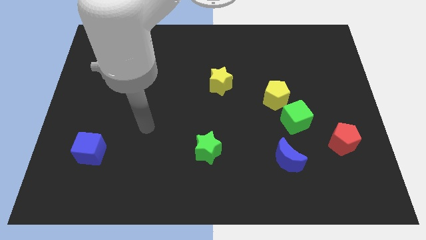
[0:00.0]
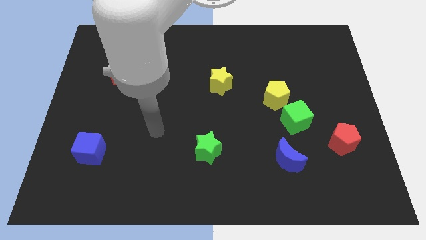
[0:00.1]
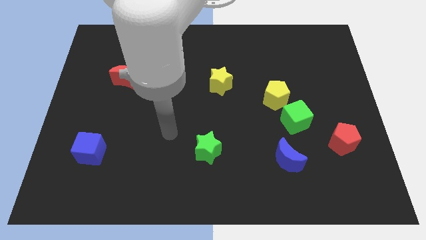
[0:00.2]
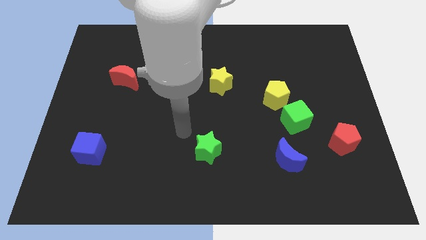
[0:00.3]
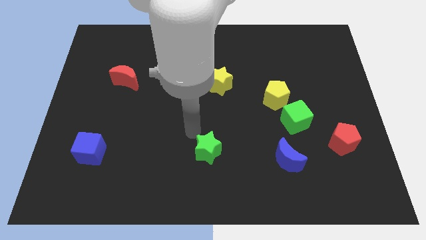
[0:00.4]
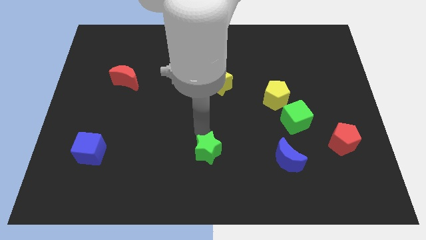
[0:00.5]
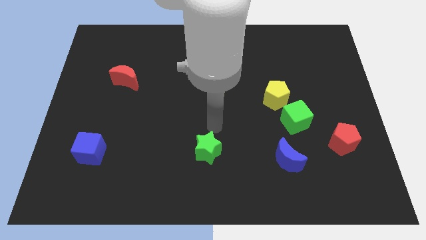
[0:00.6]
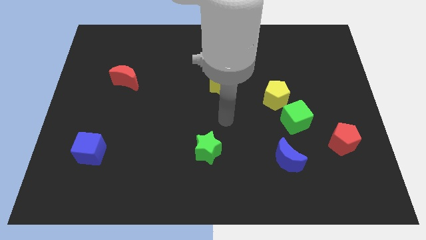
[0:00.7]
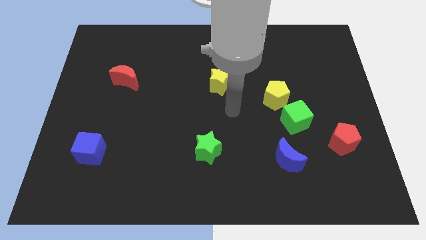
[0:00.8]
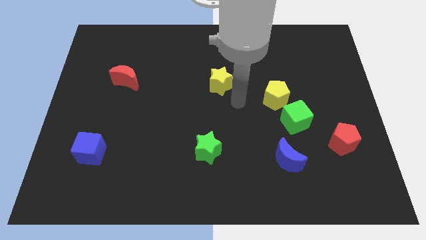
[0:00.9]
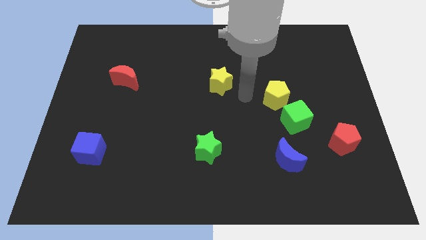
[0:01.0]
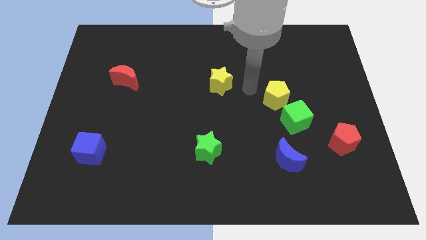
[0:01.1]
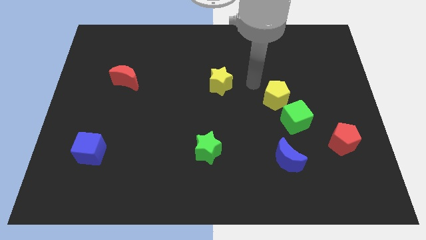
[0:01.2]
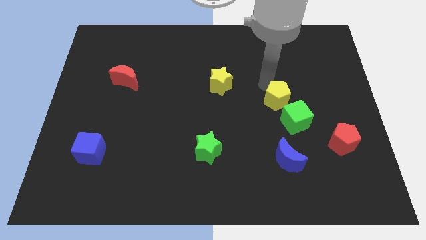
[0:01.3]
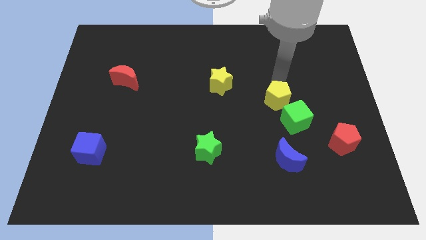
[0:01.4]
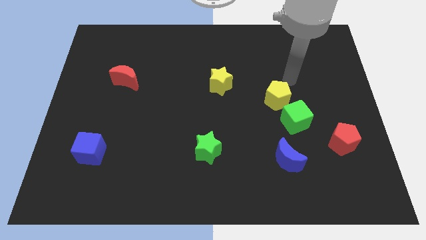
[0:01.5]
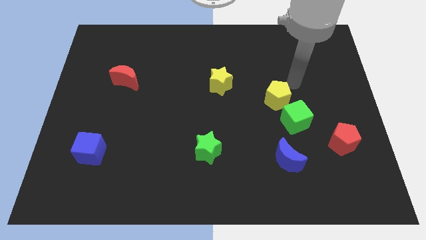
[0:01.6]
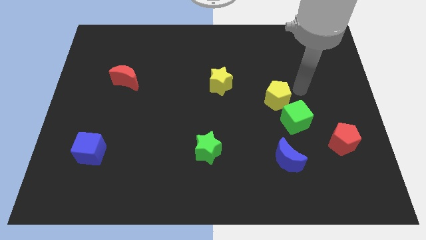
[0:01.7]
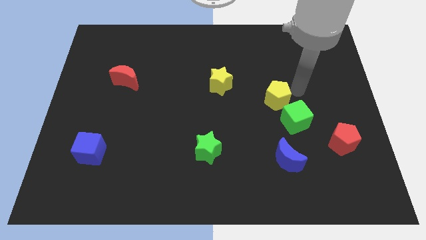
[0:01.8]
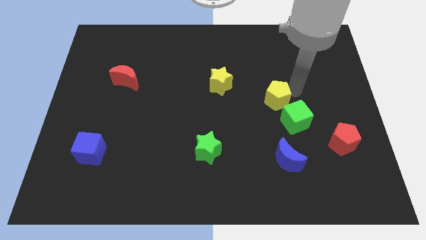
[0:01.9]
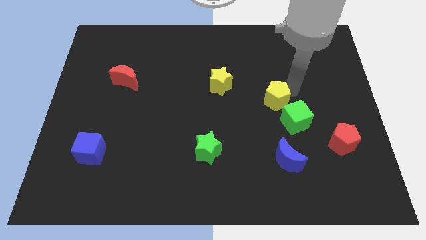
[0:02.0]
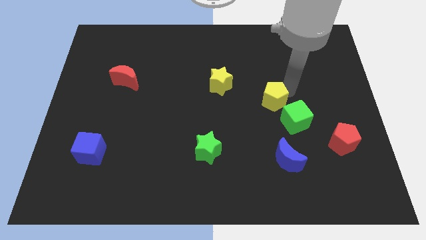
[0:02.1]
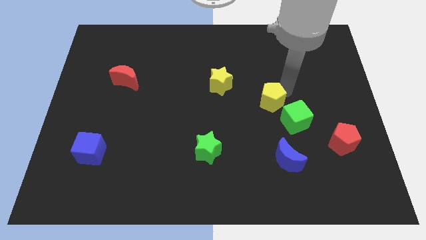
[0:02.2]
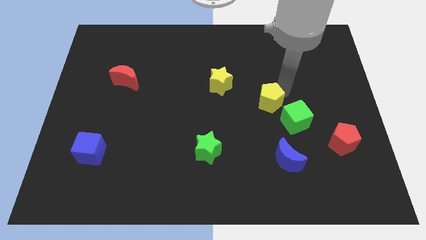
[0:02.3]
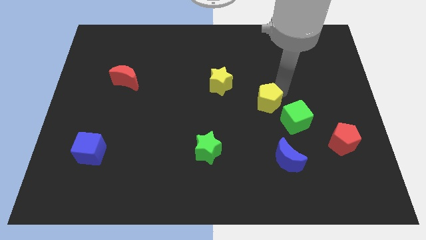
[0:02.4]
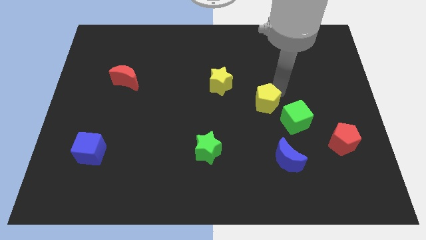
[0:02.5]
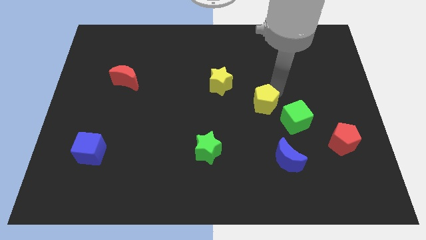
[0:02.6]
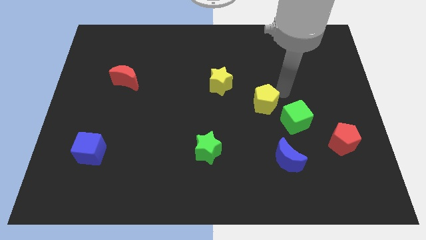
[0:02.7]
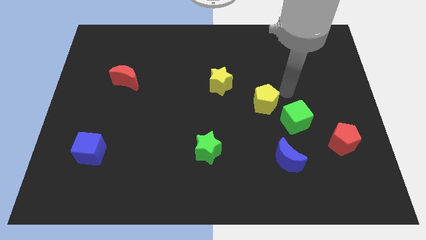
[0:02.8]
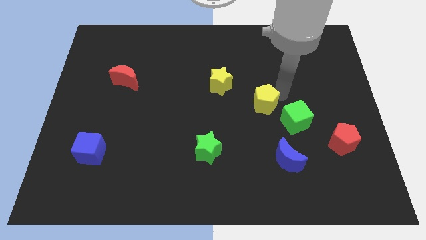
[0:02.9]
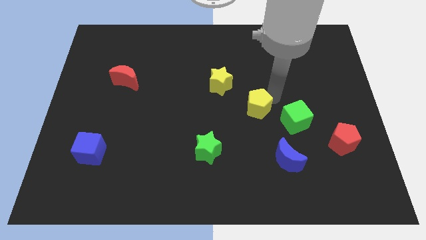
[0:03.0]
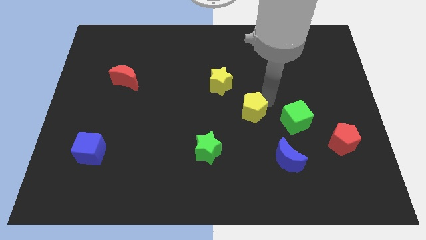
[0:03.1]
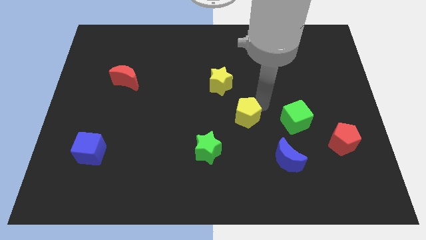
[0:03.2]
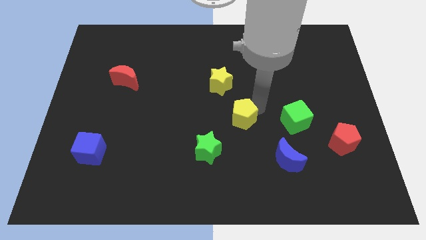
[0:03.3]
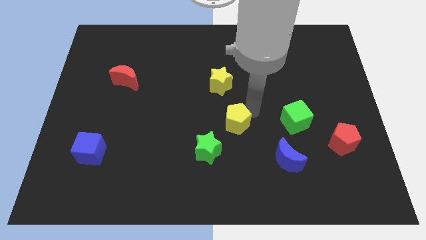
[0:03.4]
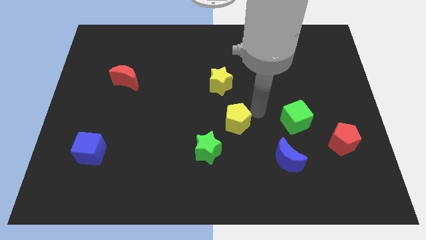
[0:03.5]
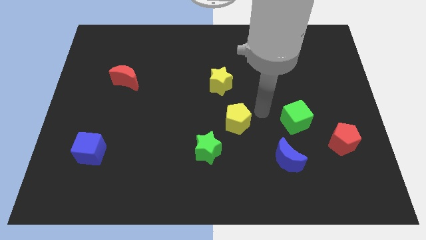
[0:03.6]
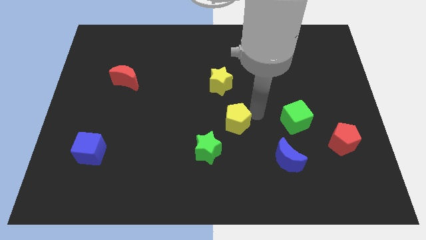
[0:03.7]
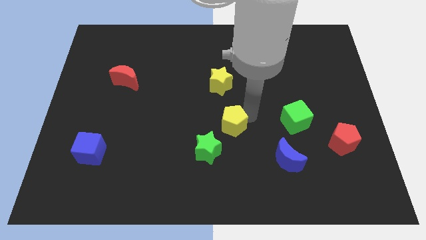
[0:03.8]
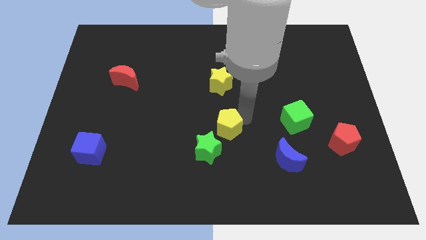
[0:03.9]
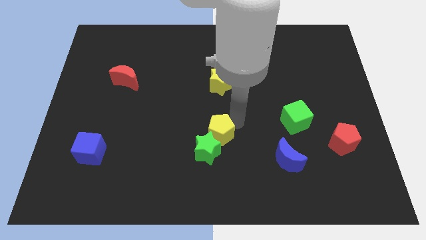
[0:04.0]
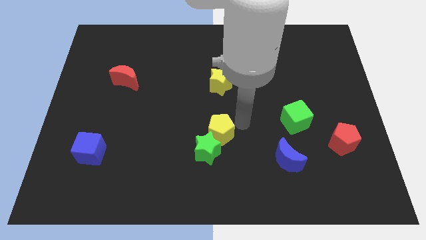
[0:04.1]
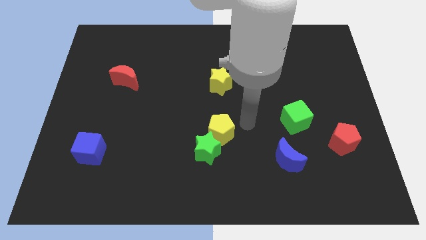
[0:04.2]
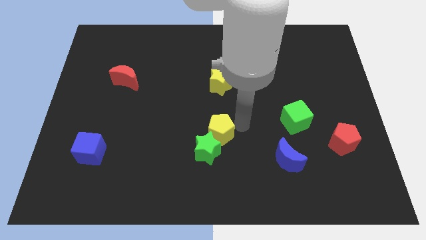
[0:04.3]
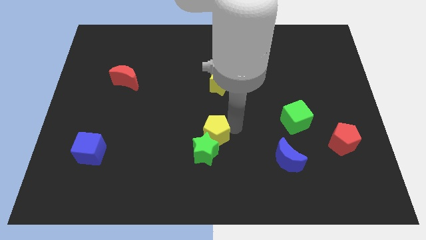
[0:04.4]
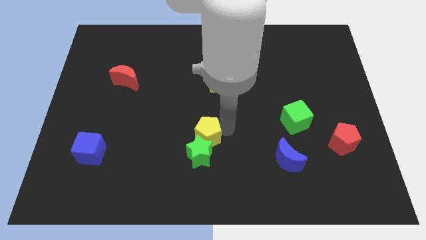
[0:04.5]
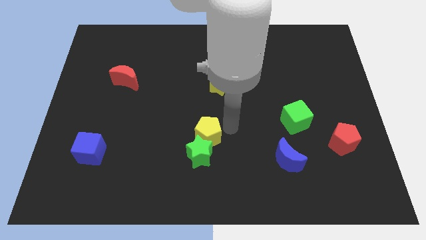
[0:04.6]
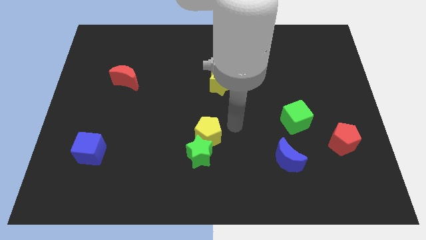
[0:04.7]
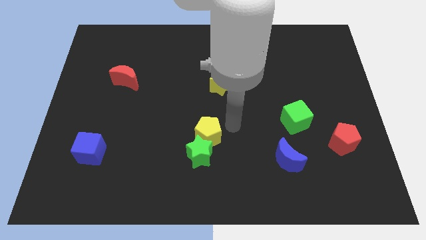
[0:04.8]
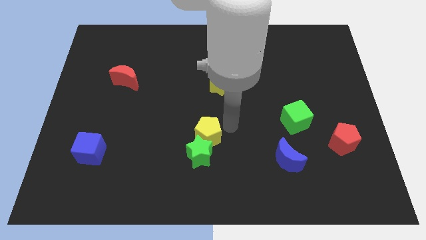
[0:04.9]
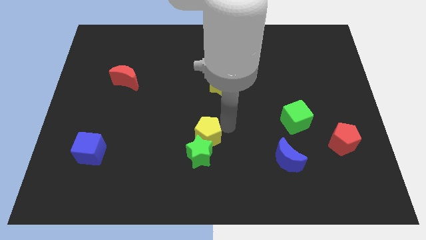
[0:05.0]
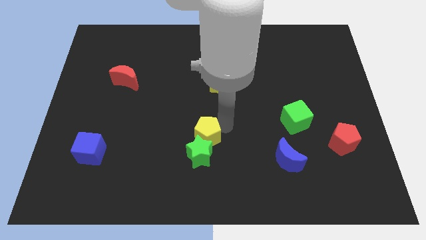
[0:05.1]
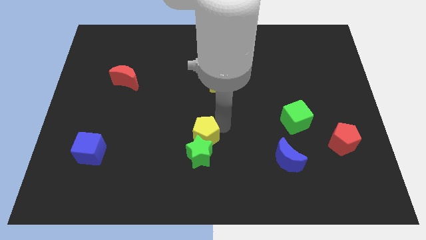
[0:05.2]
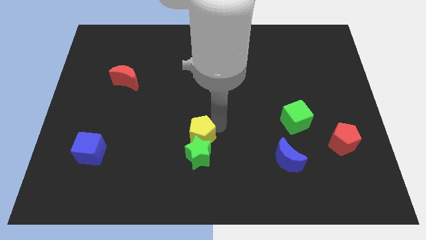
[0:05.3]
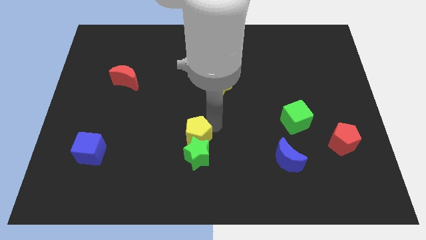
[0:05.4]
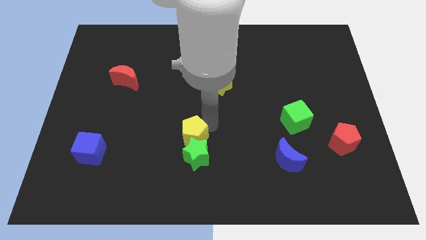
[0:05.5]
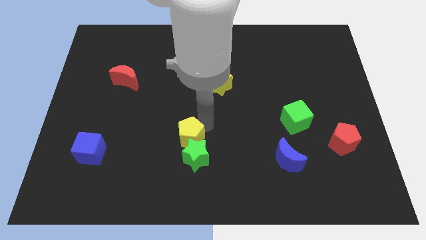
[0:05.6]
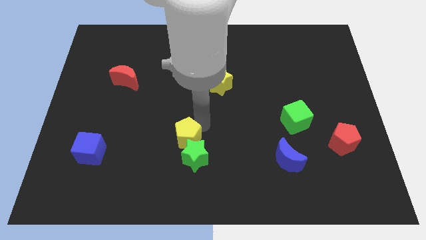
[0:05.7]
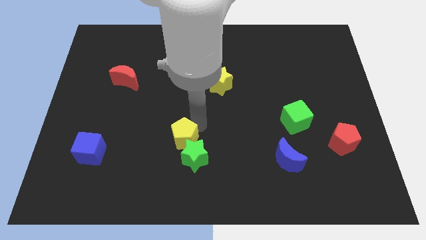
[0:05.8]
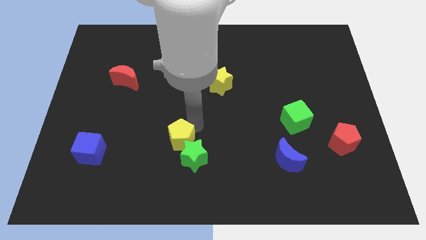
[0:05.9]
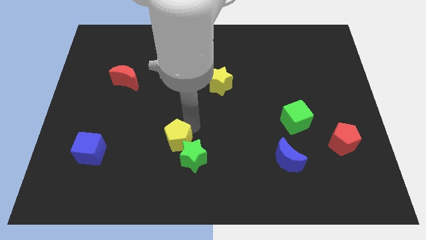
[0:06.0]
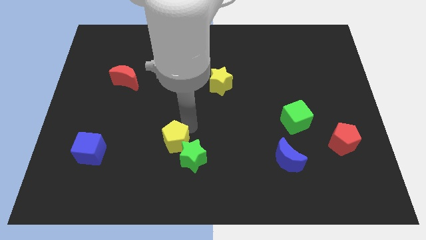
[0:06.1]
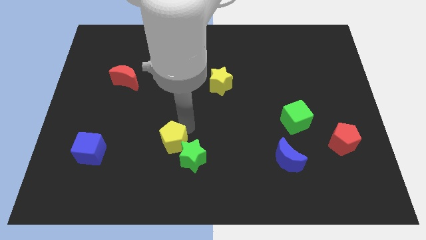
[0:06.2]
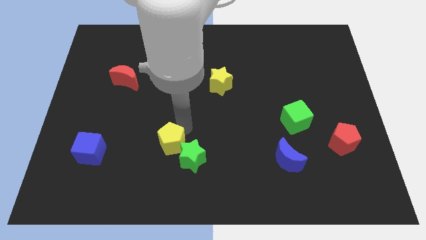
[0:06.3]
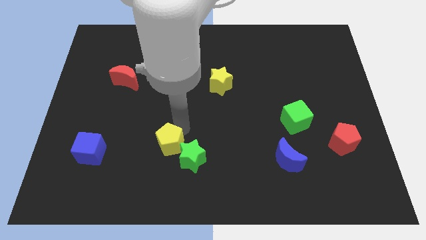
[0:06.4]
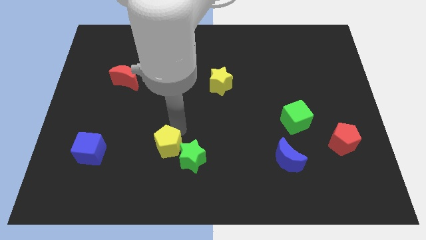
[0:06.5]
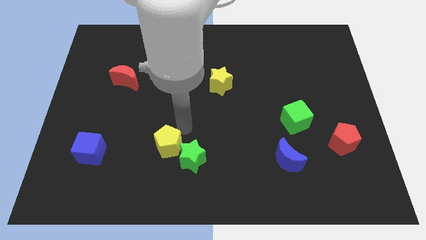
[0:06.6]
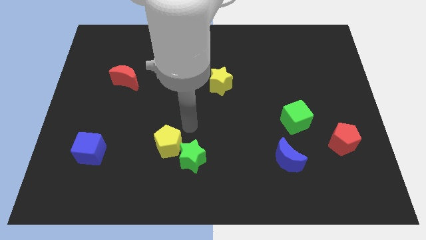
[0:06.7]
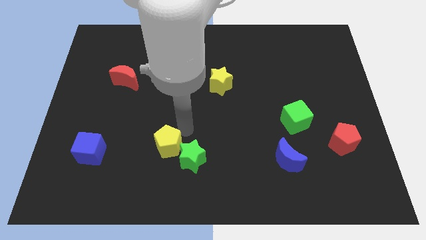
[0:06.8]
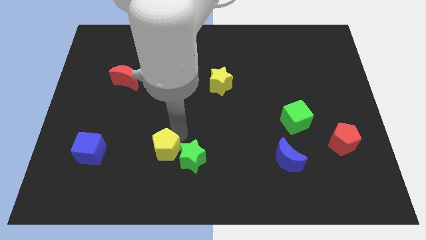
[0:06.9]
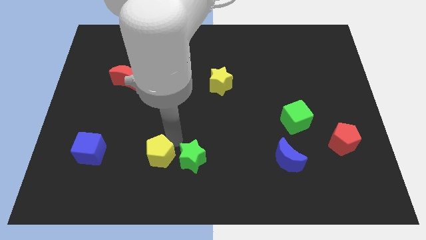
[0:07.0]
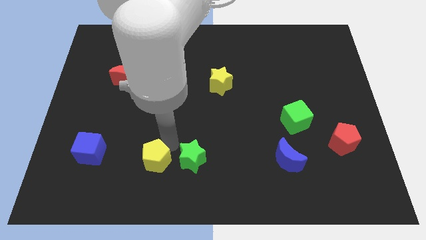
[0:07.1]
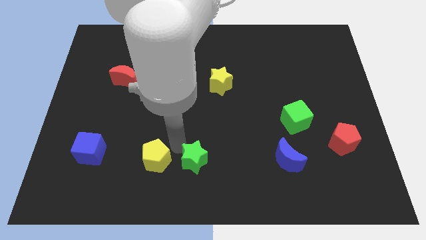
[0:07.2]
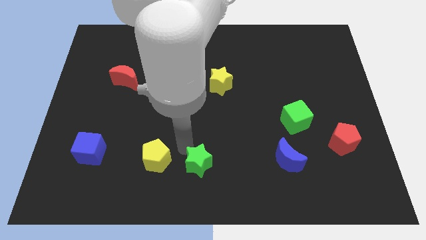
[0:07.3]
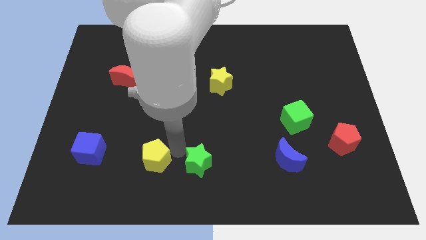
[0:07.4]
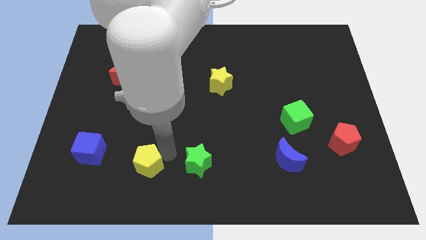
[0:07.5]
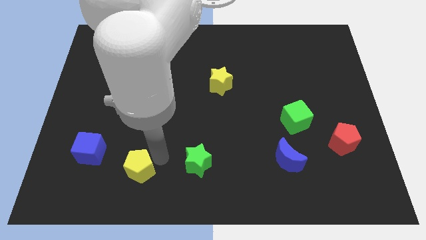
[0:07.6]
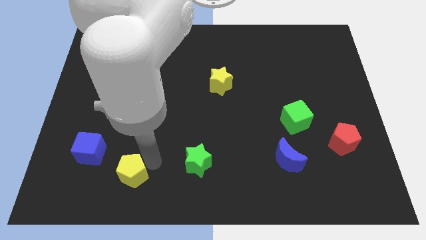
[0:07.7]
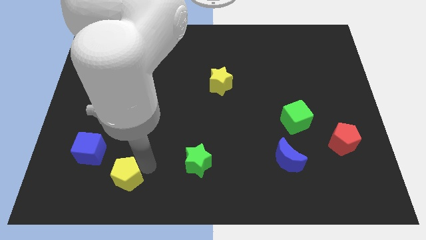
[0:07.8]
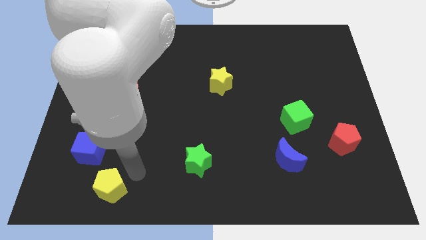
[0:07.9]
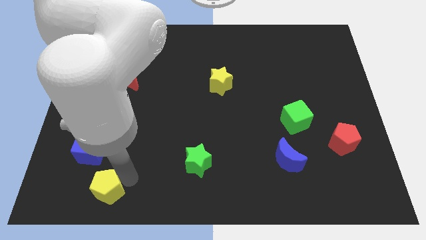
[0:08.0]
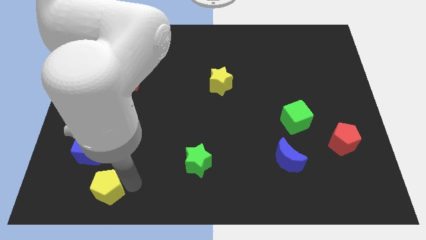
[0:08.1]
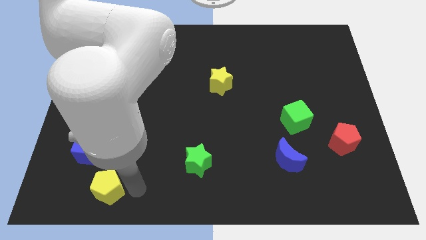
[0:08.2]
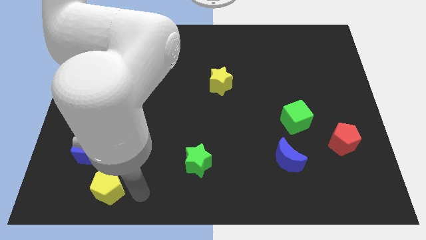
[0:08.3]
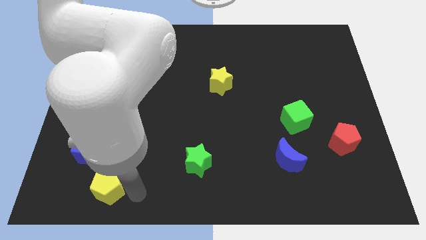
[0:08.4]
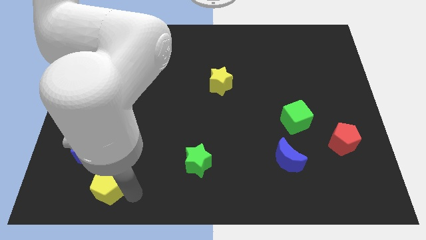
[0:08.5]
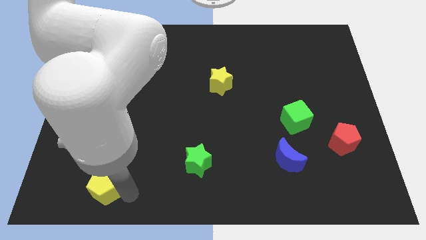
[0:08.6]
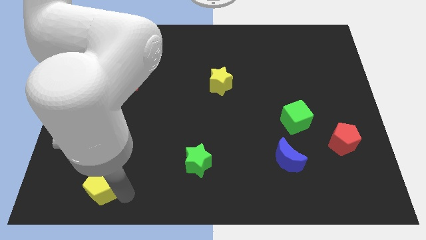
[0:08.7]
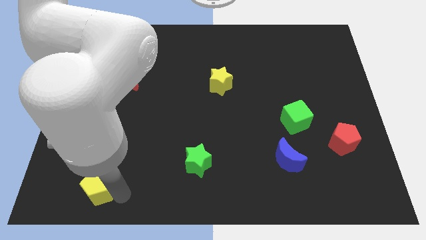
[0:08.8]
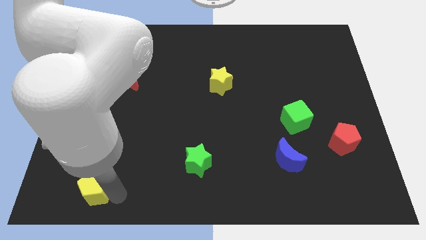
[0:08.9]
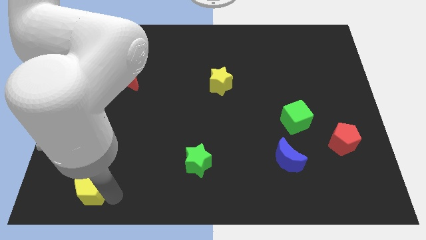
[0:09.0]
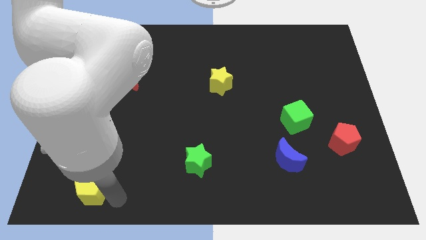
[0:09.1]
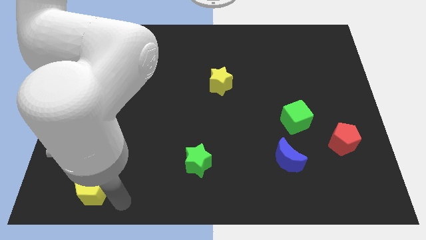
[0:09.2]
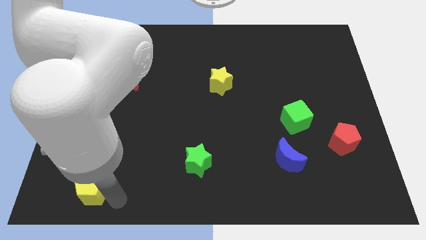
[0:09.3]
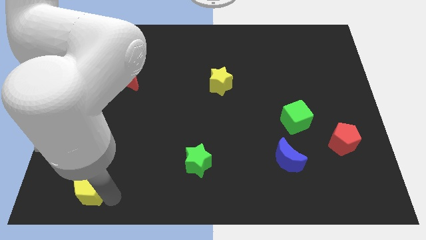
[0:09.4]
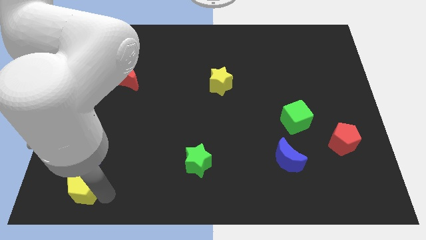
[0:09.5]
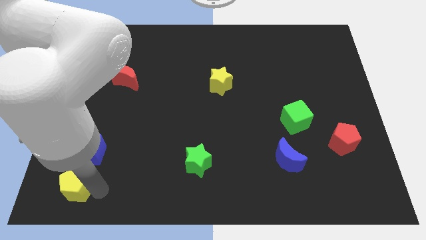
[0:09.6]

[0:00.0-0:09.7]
move the yellow pentagon to the bottom left corner
